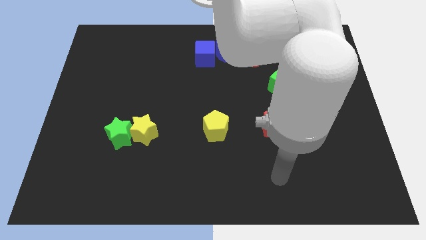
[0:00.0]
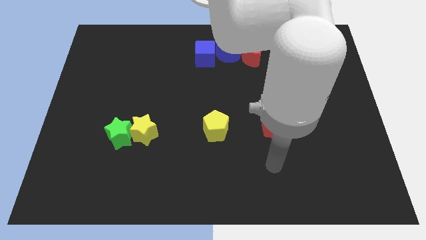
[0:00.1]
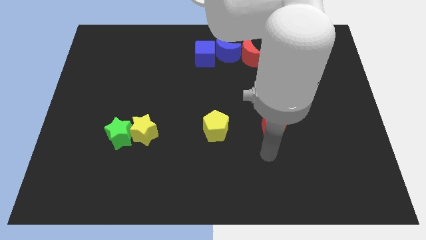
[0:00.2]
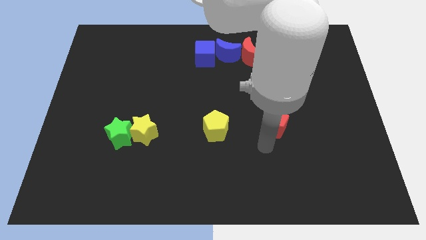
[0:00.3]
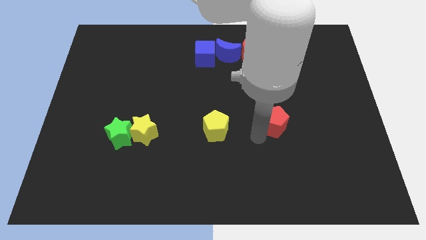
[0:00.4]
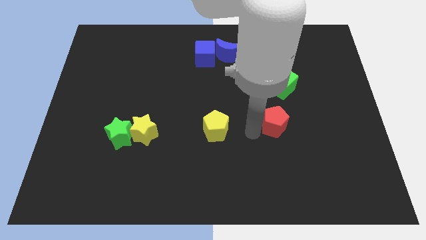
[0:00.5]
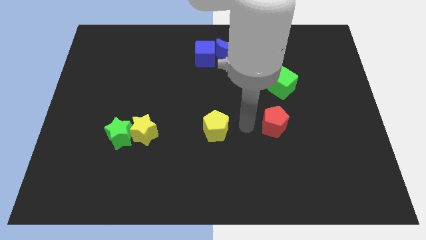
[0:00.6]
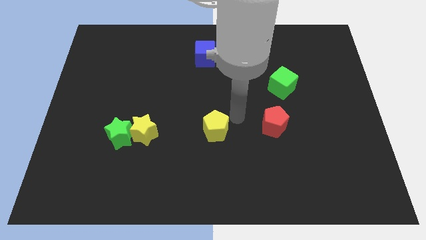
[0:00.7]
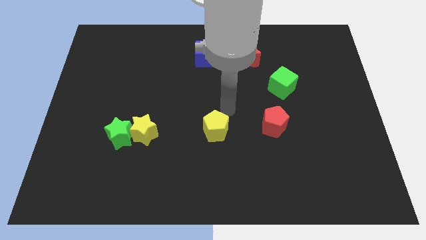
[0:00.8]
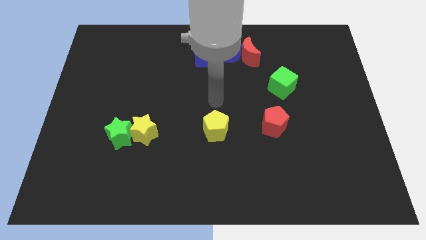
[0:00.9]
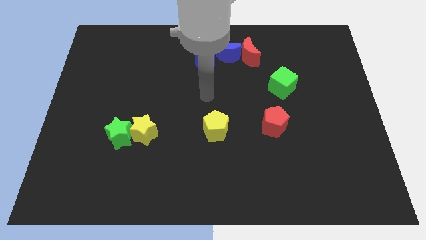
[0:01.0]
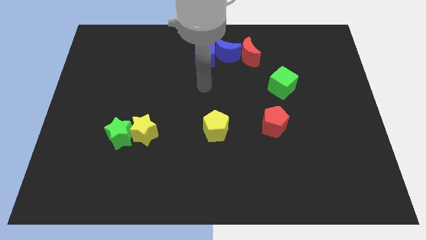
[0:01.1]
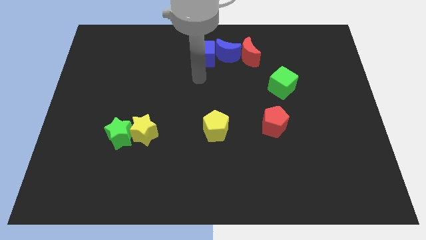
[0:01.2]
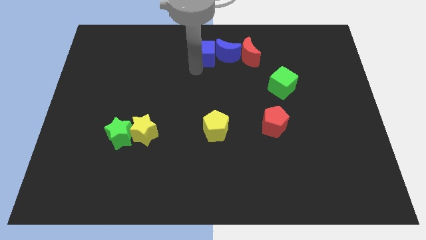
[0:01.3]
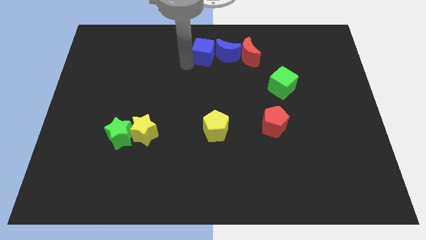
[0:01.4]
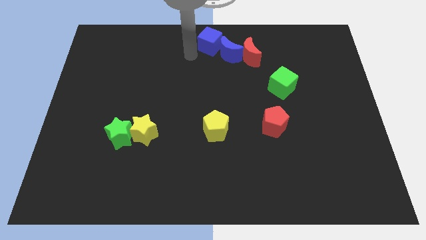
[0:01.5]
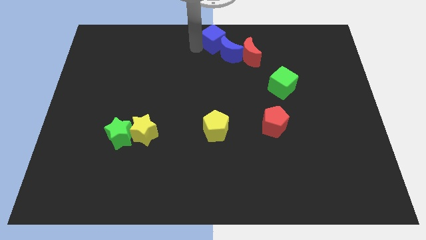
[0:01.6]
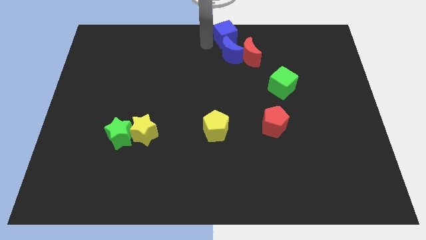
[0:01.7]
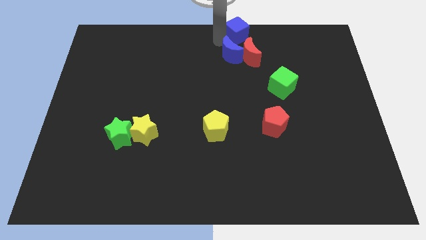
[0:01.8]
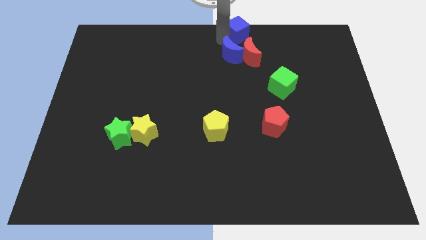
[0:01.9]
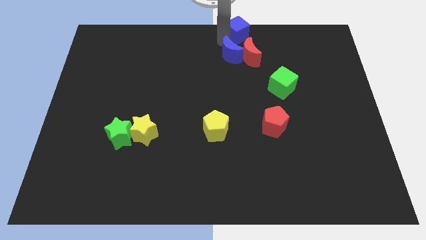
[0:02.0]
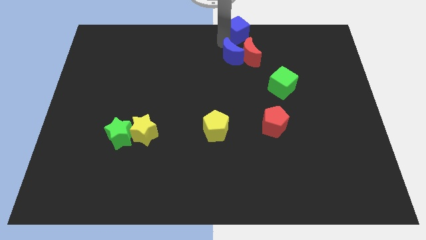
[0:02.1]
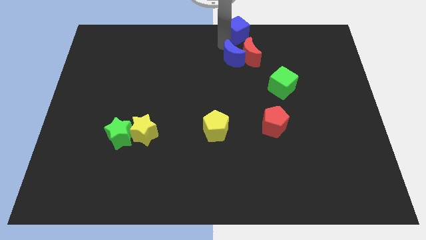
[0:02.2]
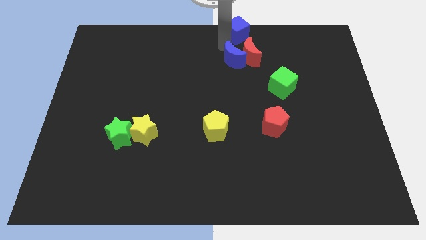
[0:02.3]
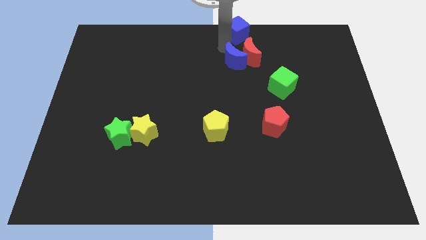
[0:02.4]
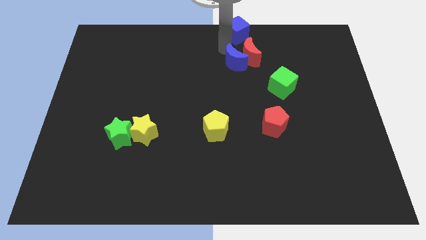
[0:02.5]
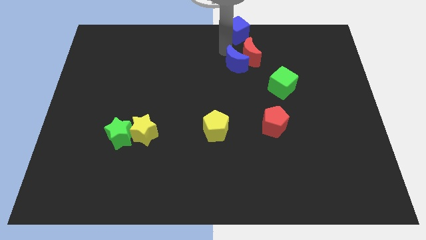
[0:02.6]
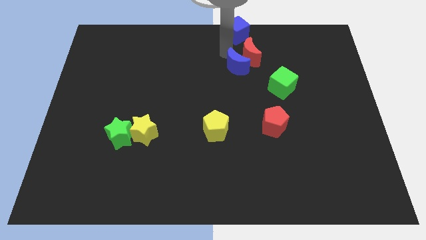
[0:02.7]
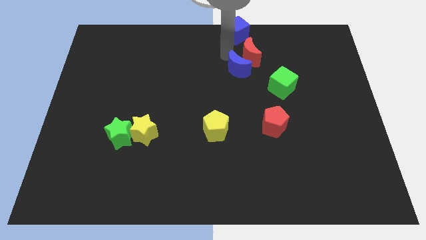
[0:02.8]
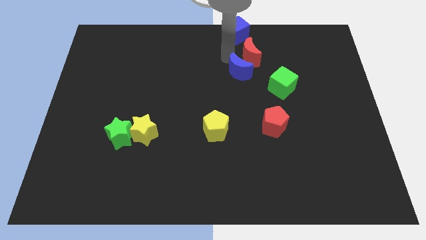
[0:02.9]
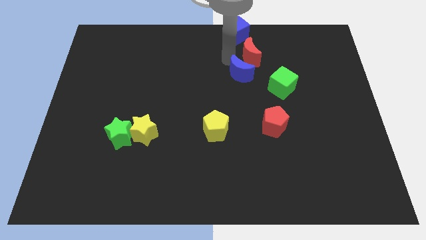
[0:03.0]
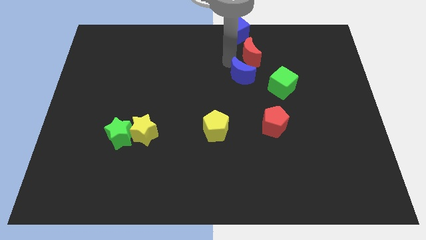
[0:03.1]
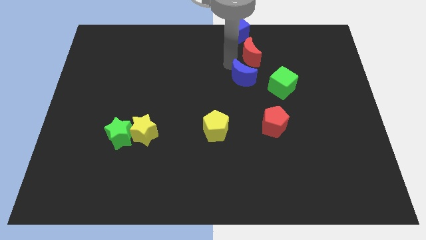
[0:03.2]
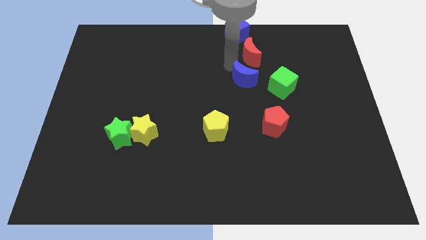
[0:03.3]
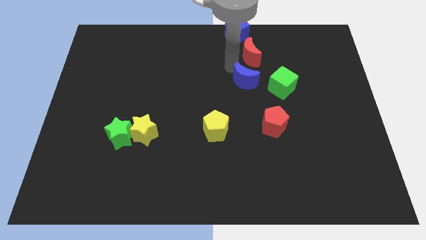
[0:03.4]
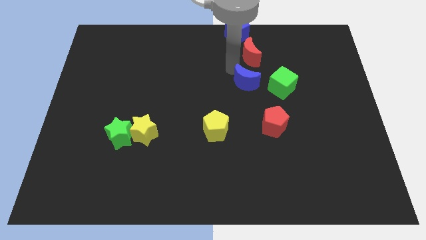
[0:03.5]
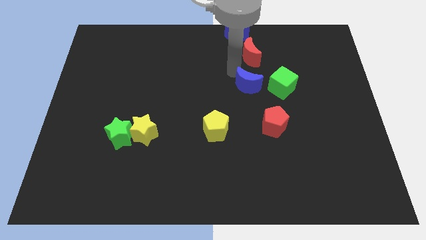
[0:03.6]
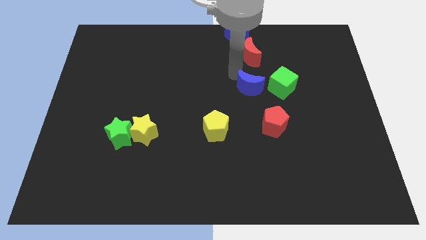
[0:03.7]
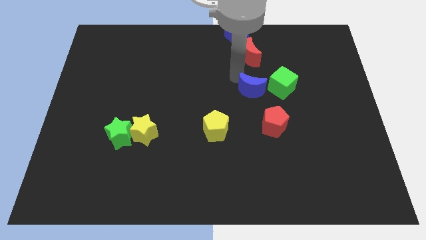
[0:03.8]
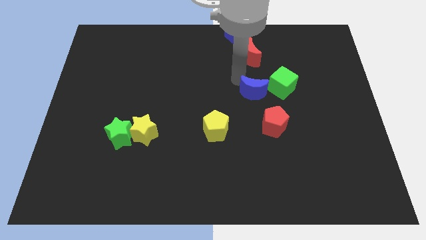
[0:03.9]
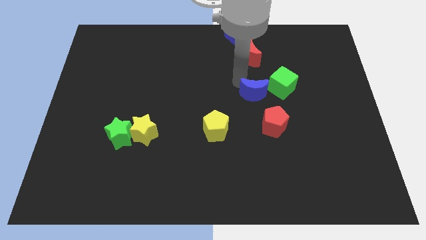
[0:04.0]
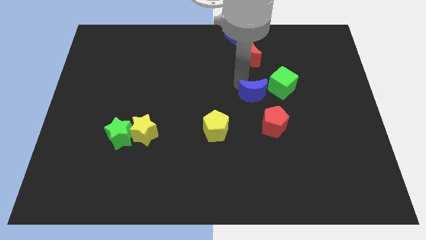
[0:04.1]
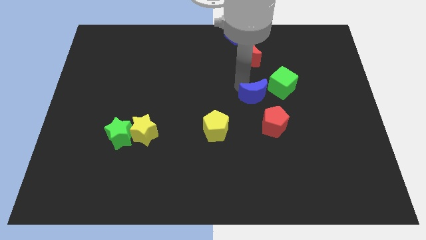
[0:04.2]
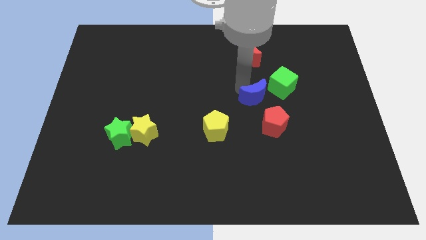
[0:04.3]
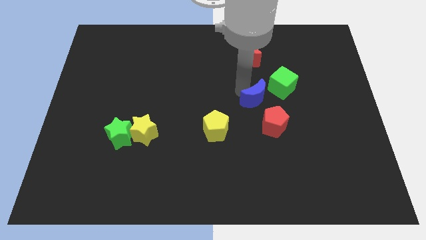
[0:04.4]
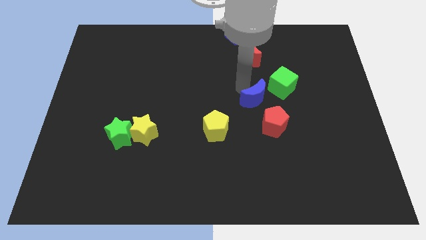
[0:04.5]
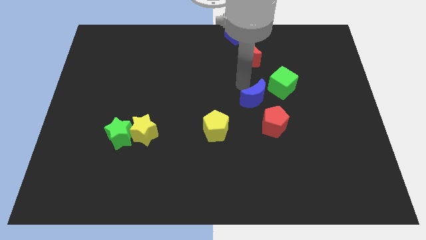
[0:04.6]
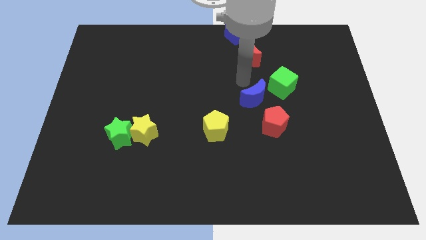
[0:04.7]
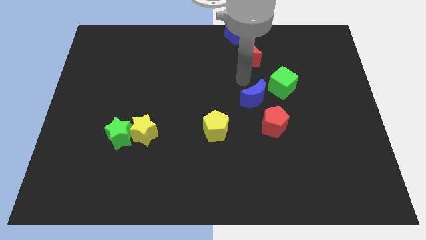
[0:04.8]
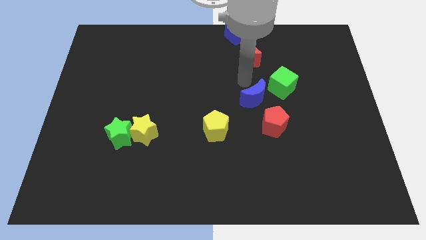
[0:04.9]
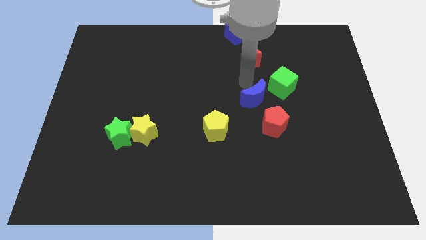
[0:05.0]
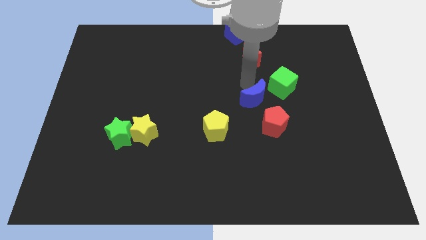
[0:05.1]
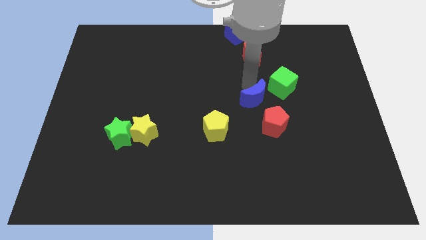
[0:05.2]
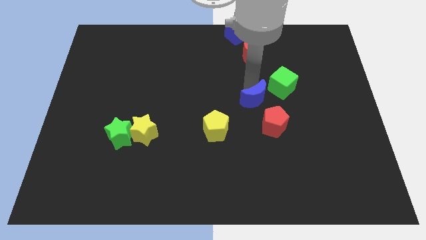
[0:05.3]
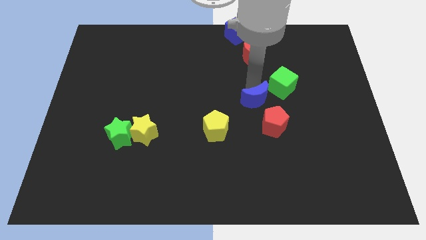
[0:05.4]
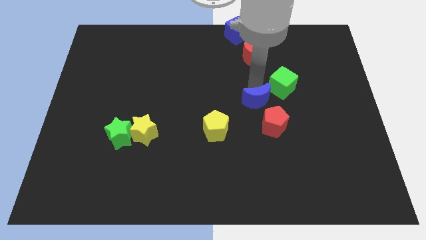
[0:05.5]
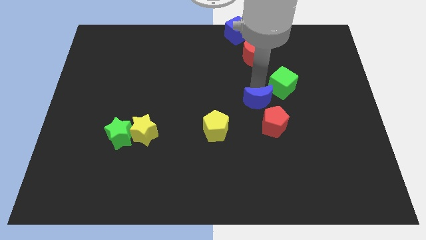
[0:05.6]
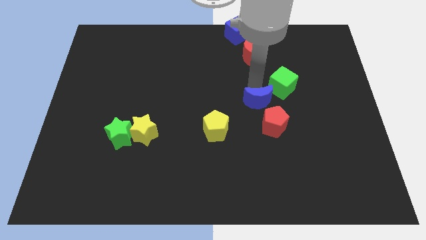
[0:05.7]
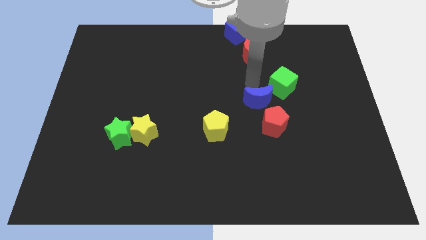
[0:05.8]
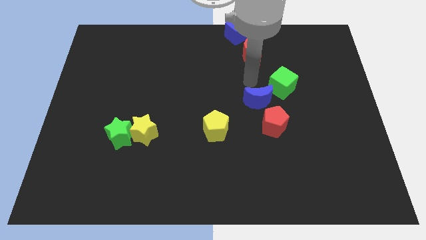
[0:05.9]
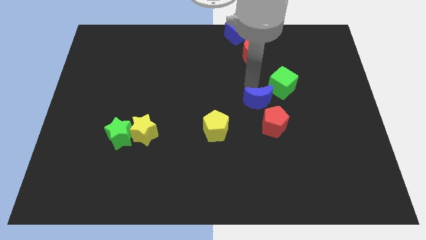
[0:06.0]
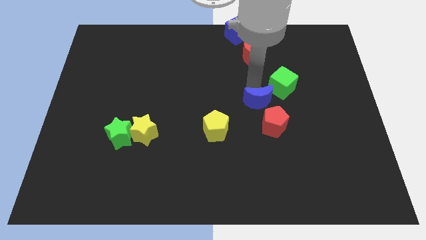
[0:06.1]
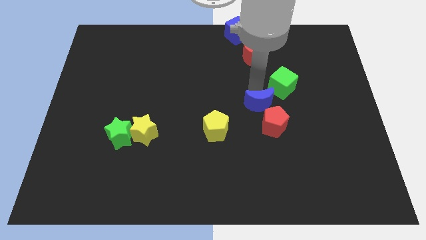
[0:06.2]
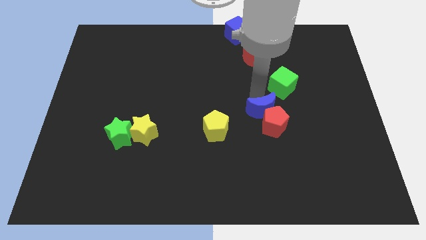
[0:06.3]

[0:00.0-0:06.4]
push the blue moon next to the red pentagon
